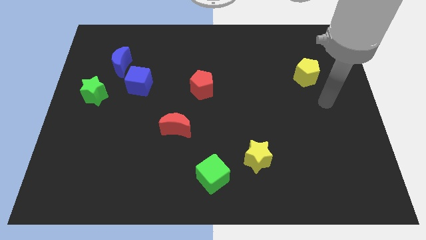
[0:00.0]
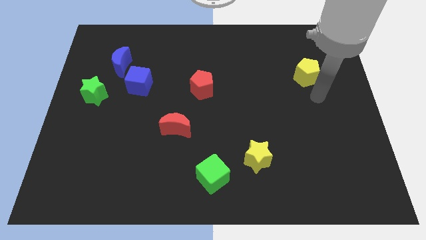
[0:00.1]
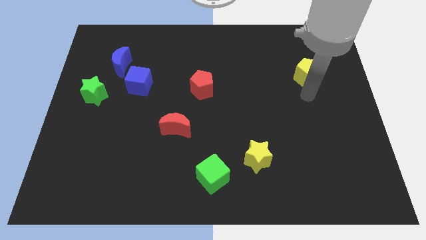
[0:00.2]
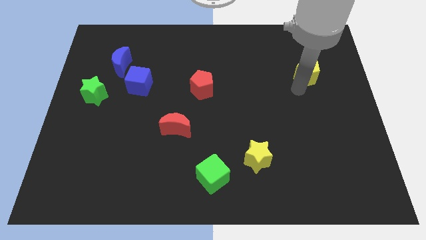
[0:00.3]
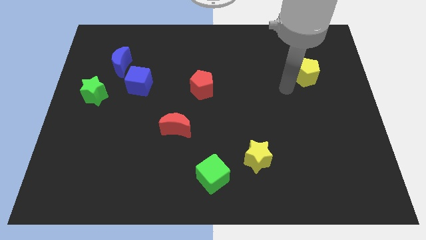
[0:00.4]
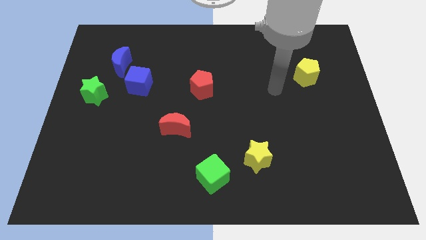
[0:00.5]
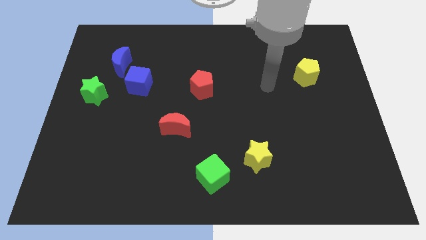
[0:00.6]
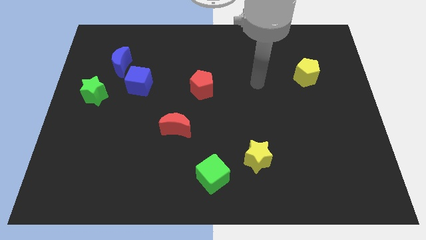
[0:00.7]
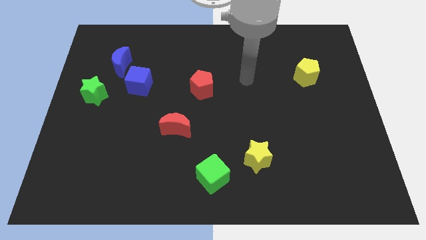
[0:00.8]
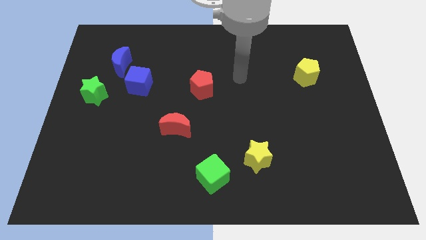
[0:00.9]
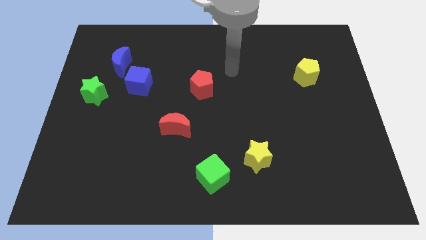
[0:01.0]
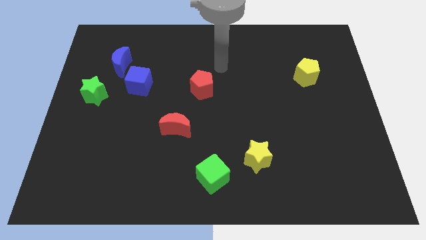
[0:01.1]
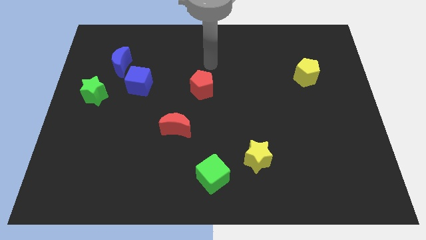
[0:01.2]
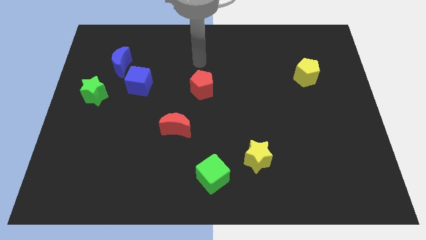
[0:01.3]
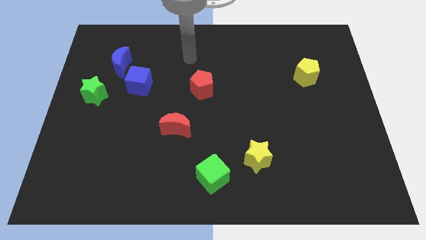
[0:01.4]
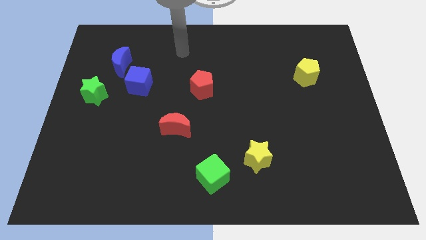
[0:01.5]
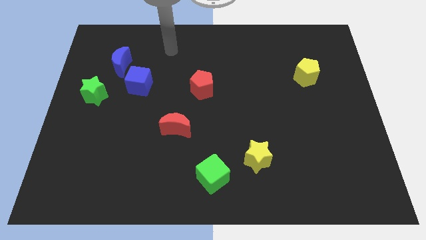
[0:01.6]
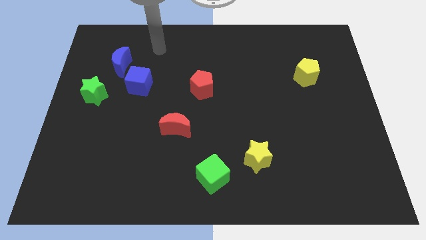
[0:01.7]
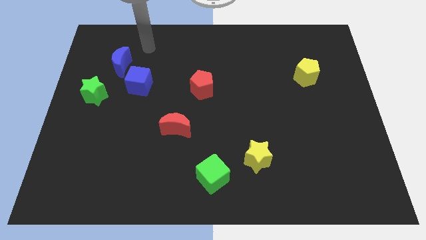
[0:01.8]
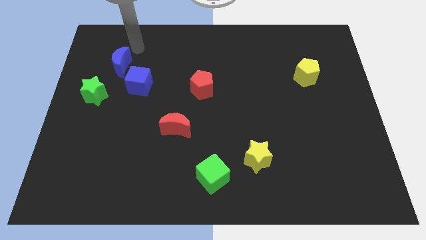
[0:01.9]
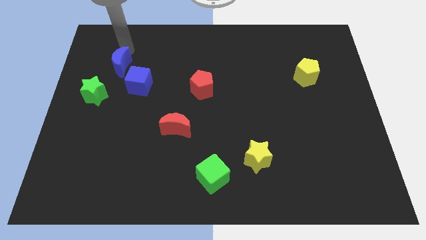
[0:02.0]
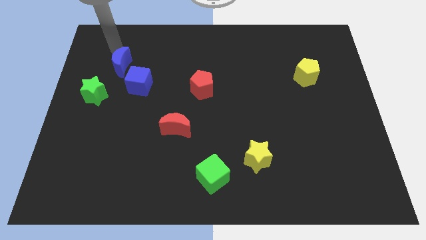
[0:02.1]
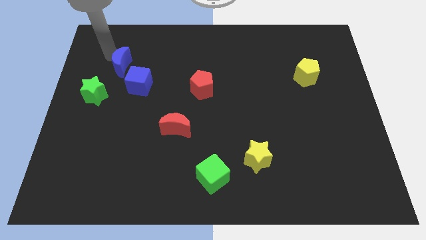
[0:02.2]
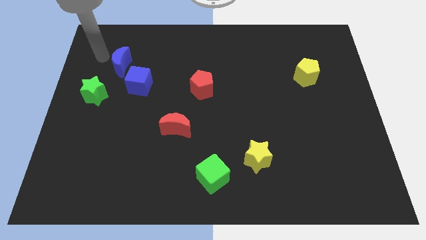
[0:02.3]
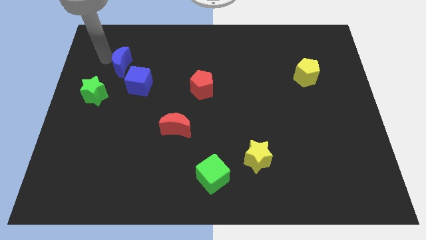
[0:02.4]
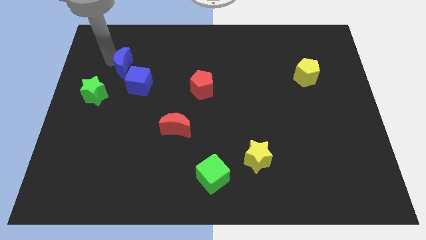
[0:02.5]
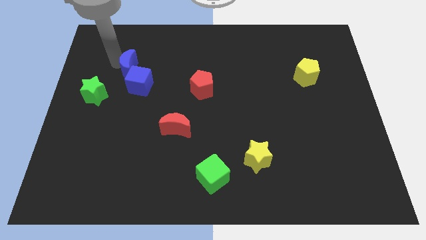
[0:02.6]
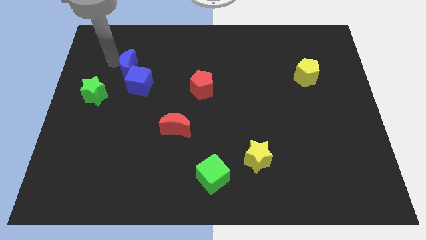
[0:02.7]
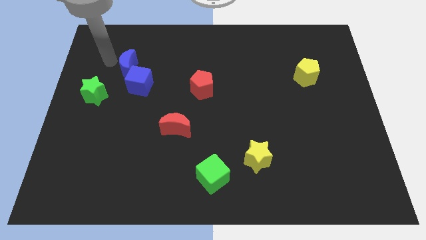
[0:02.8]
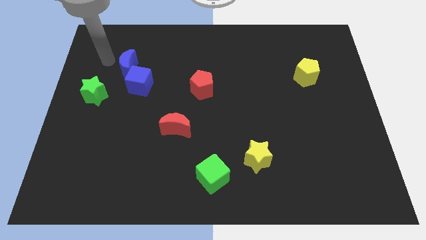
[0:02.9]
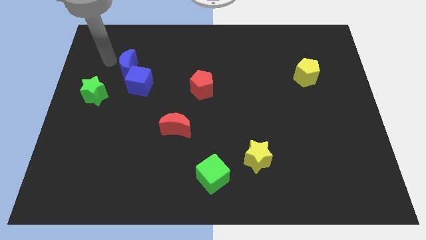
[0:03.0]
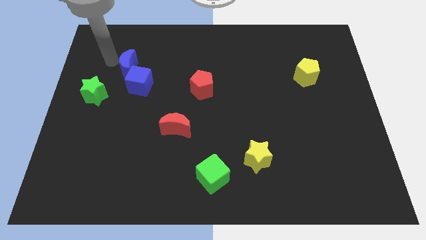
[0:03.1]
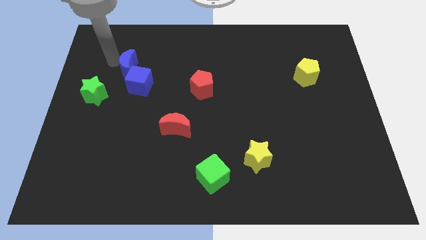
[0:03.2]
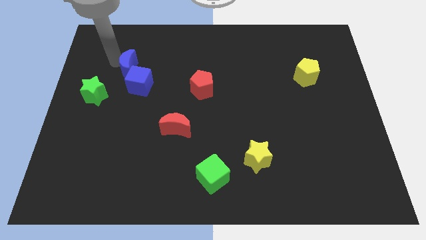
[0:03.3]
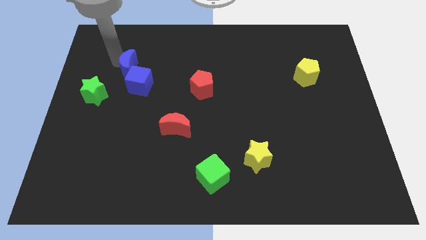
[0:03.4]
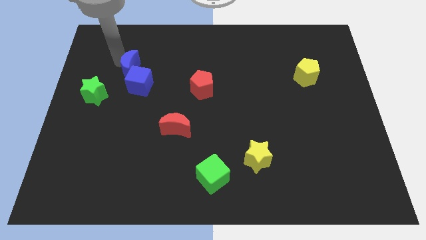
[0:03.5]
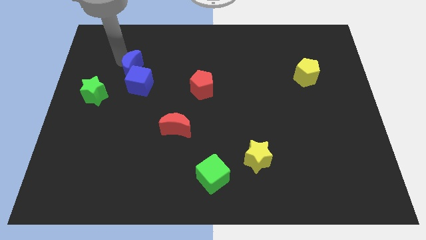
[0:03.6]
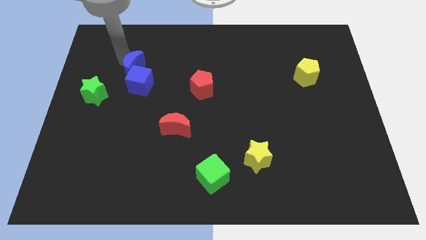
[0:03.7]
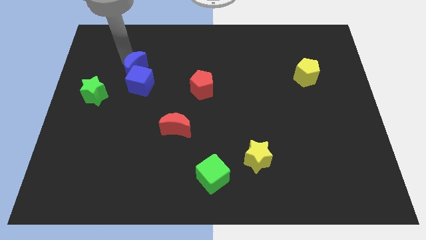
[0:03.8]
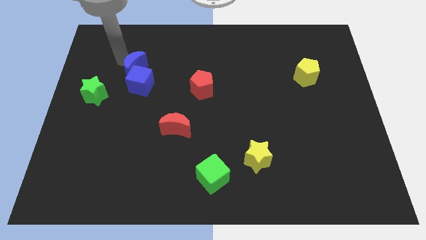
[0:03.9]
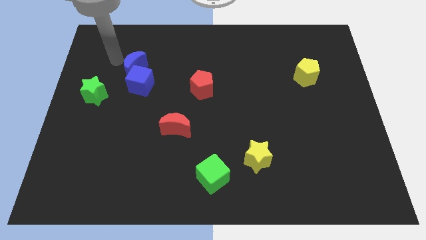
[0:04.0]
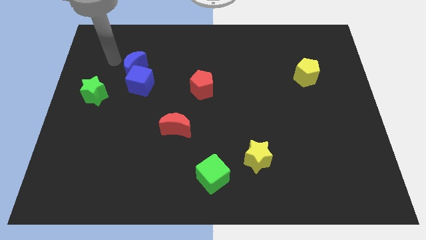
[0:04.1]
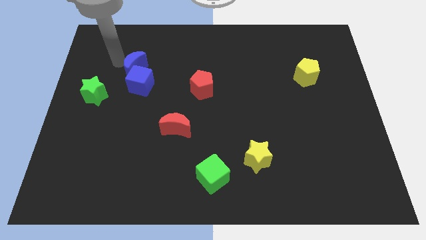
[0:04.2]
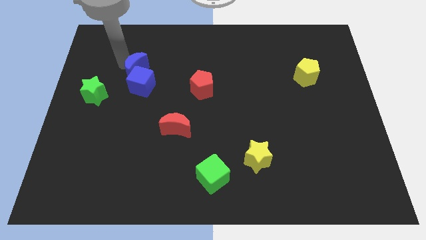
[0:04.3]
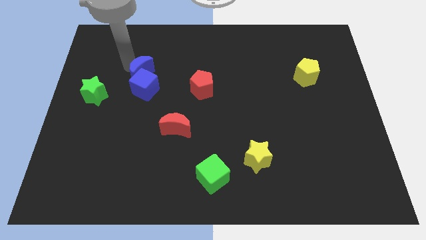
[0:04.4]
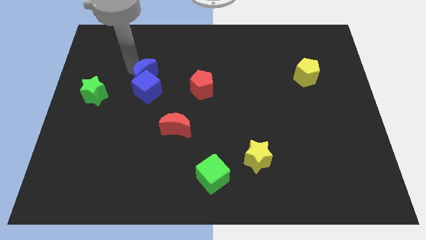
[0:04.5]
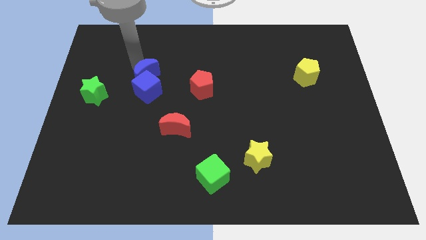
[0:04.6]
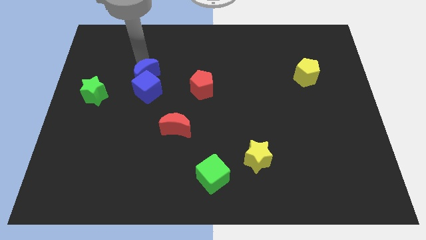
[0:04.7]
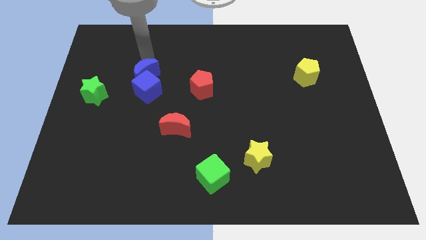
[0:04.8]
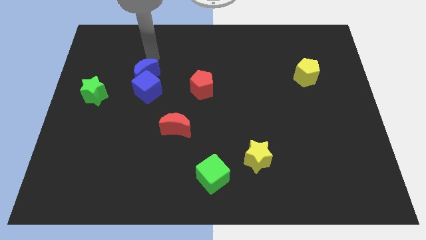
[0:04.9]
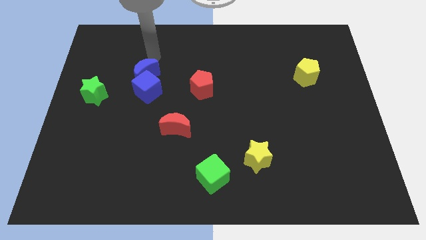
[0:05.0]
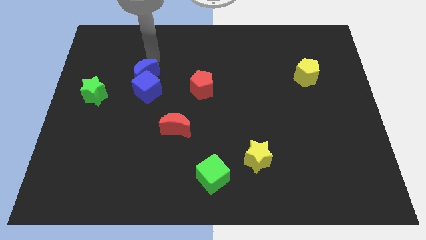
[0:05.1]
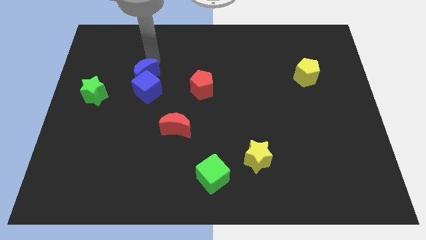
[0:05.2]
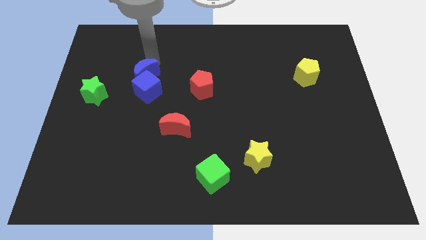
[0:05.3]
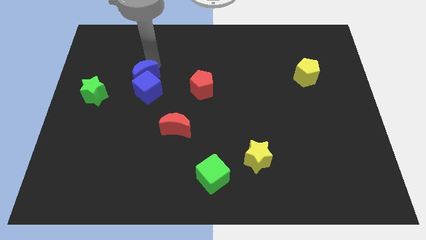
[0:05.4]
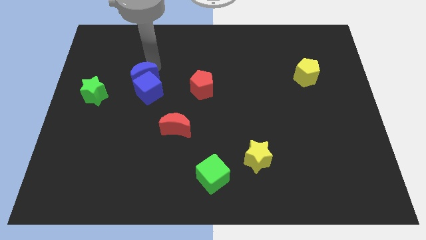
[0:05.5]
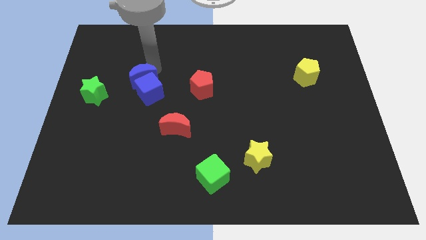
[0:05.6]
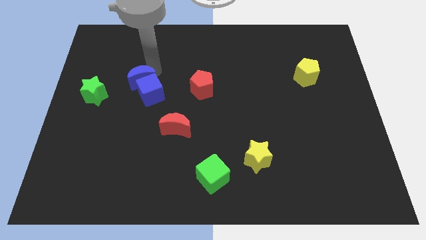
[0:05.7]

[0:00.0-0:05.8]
push the blue moon to the right of the green star

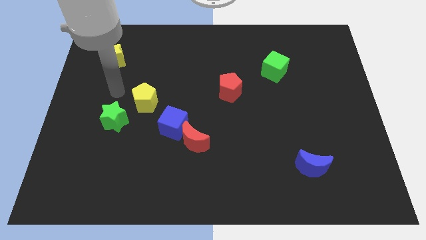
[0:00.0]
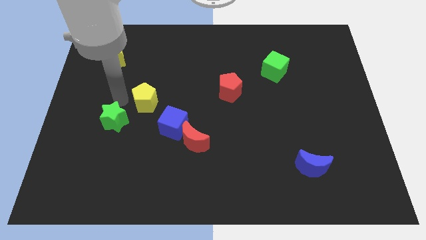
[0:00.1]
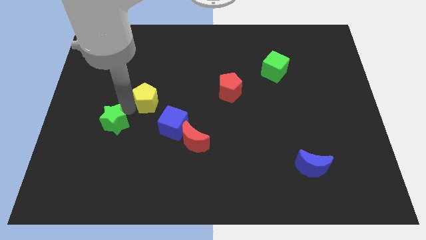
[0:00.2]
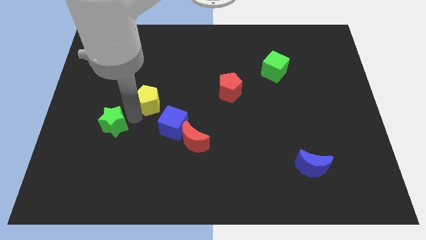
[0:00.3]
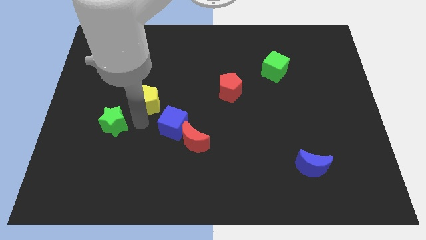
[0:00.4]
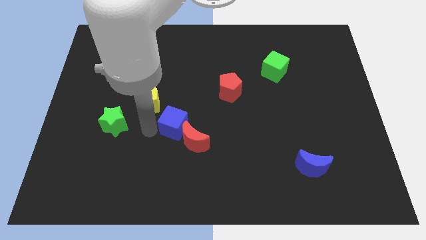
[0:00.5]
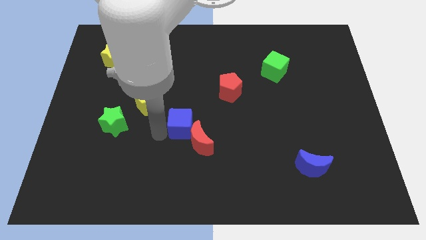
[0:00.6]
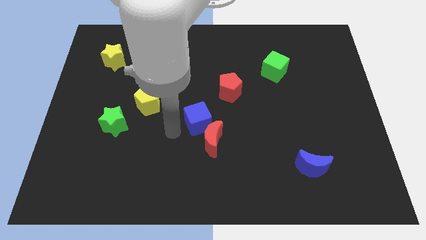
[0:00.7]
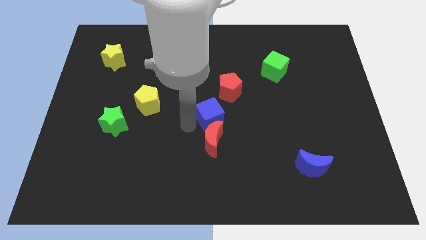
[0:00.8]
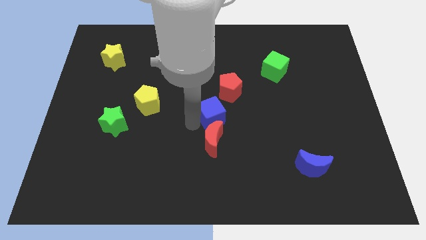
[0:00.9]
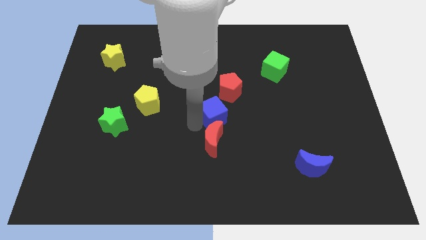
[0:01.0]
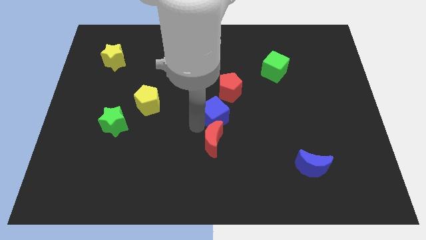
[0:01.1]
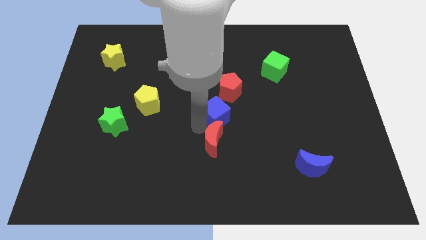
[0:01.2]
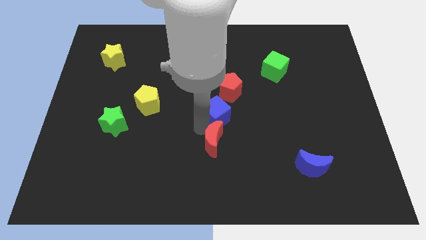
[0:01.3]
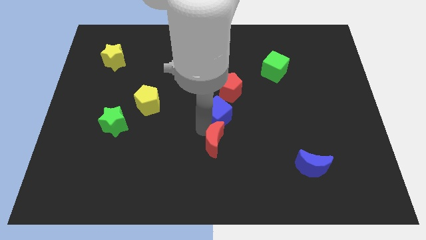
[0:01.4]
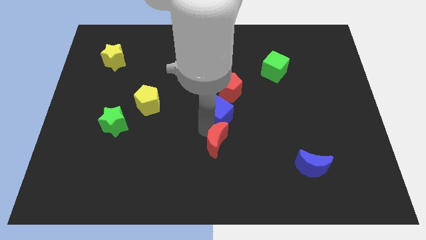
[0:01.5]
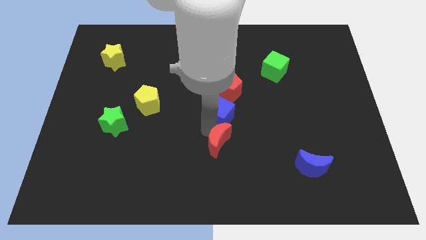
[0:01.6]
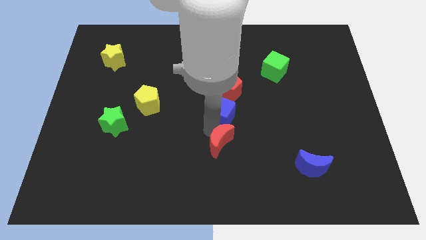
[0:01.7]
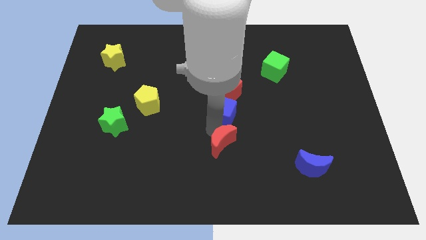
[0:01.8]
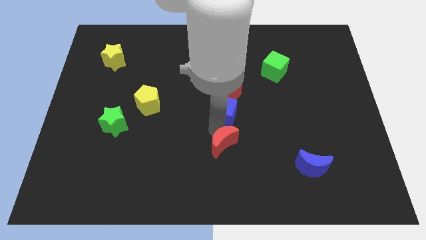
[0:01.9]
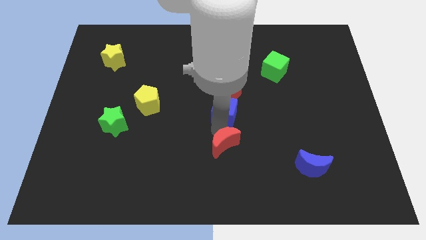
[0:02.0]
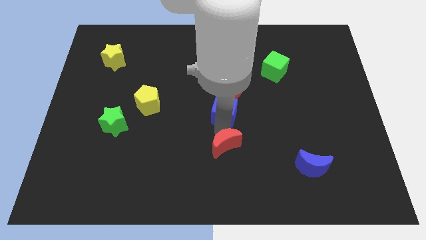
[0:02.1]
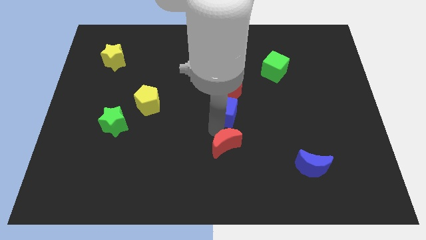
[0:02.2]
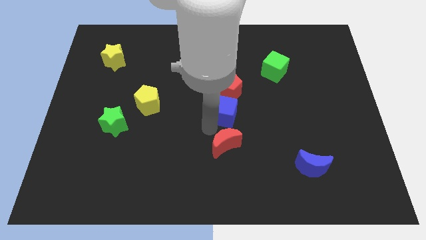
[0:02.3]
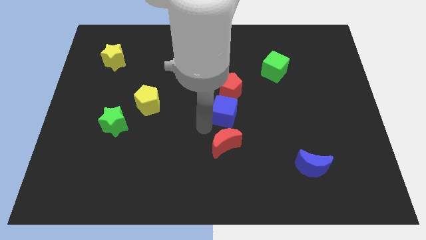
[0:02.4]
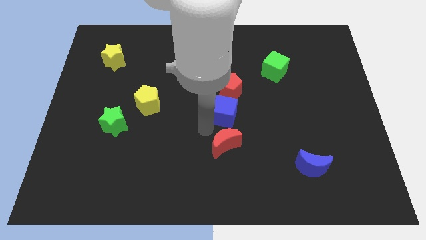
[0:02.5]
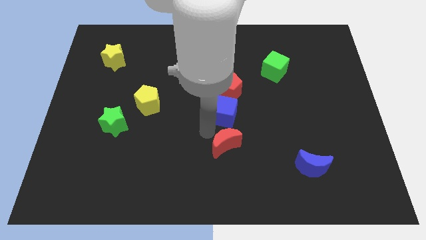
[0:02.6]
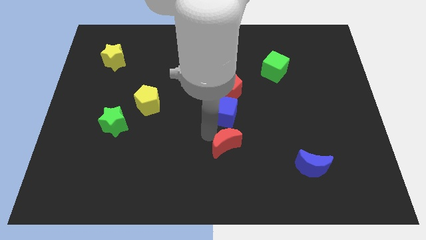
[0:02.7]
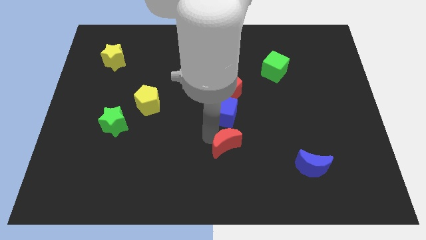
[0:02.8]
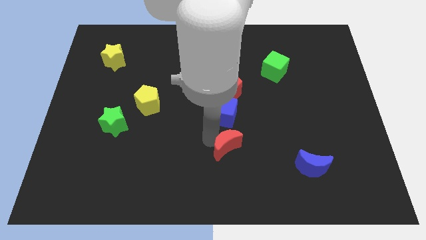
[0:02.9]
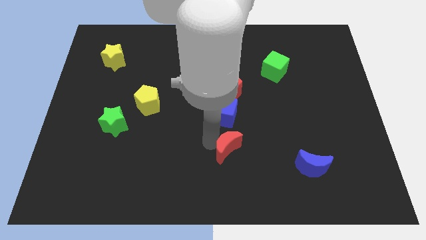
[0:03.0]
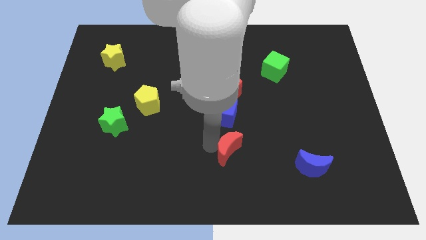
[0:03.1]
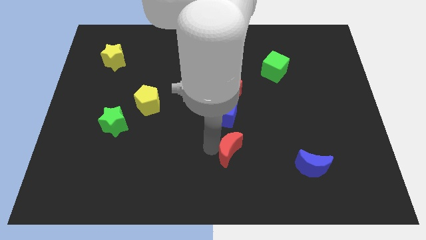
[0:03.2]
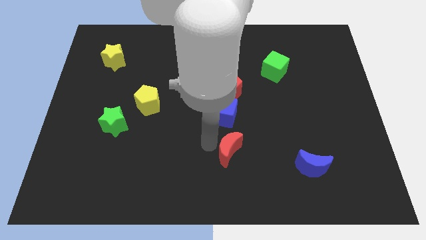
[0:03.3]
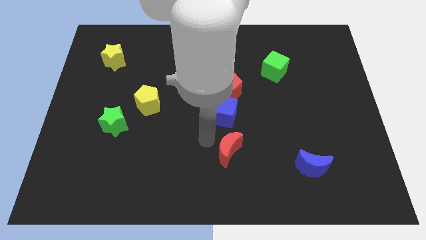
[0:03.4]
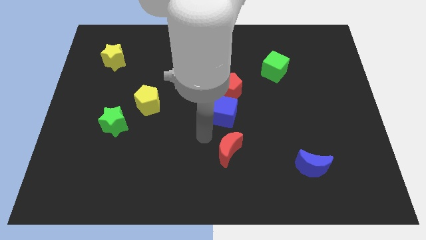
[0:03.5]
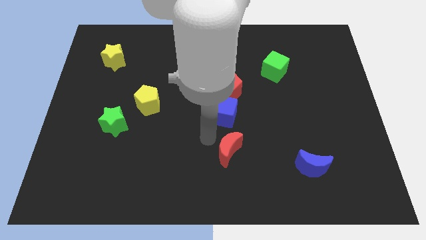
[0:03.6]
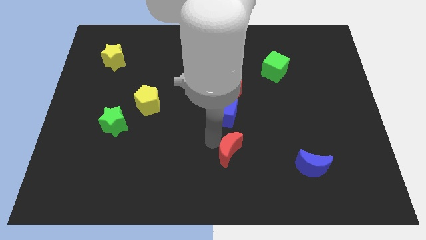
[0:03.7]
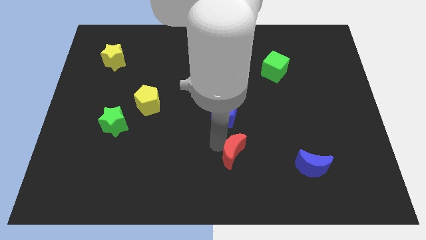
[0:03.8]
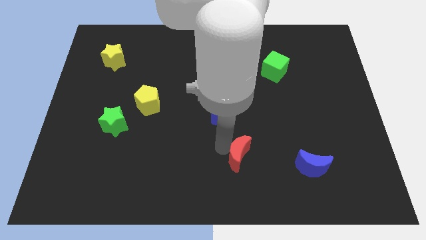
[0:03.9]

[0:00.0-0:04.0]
slide the red moon just left of the blue moon
